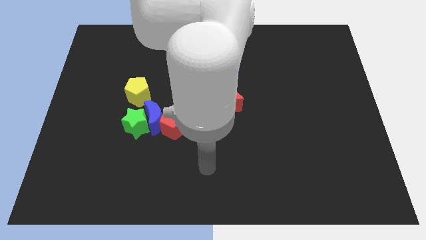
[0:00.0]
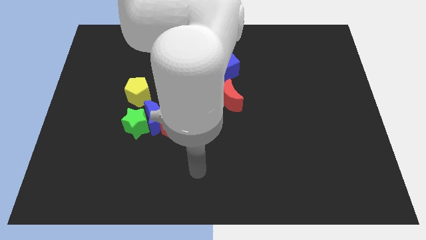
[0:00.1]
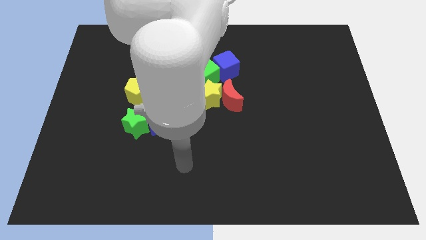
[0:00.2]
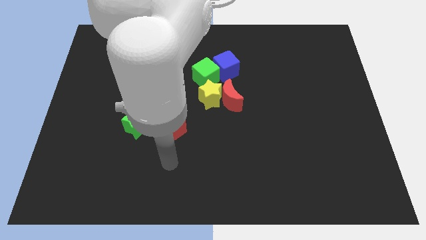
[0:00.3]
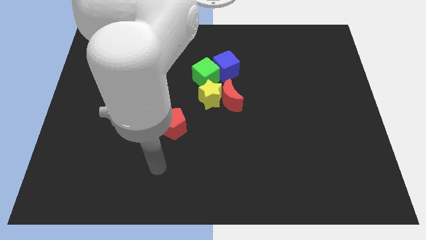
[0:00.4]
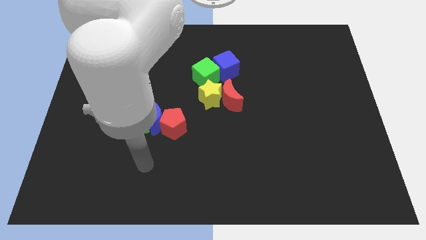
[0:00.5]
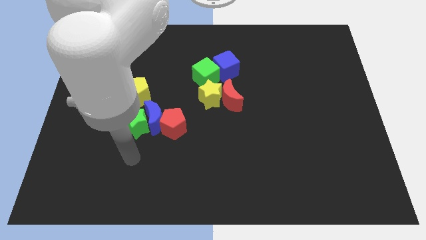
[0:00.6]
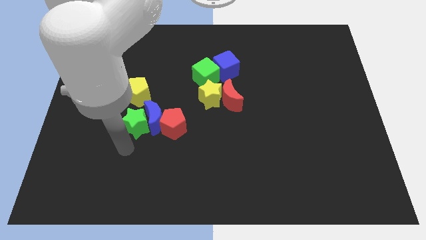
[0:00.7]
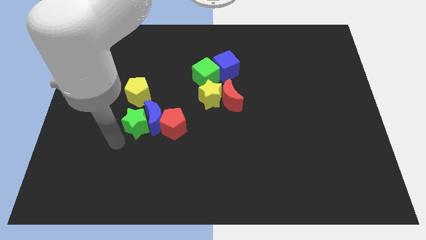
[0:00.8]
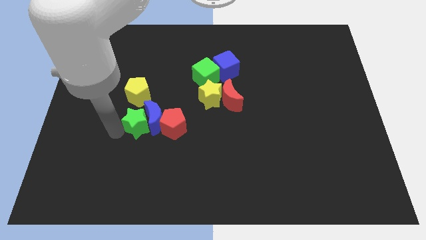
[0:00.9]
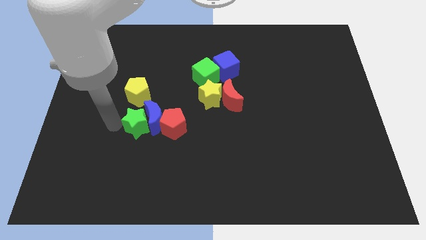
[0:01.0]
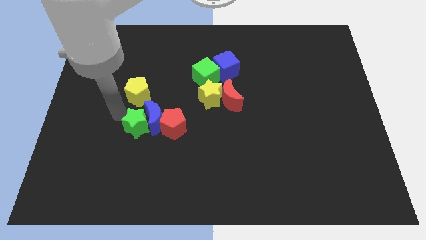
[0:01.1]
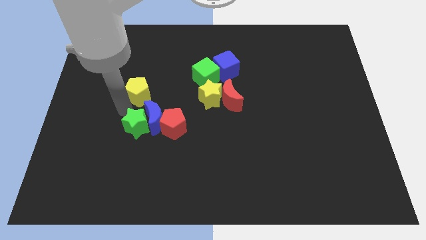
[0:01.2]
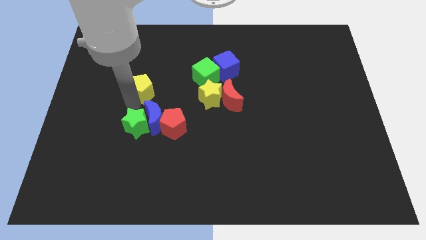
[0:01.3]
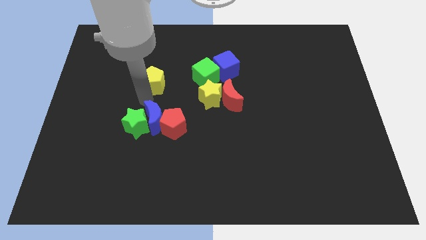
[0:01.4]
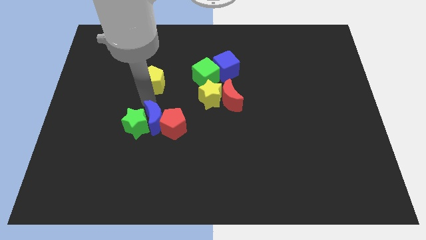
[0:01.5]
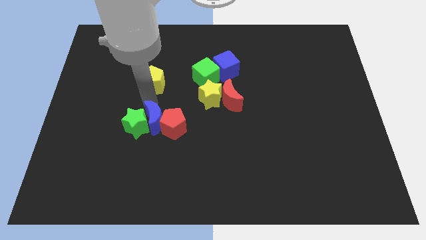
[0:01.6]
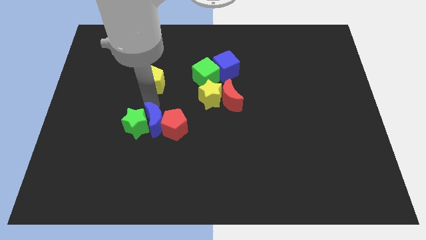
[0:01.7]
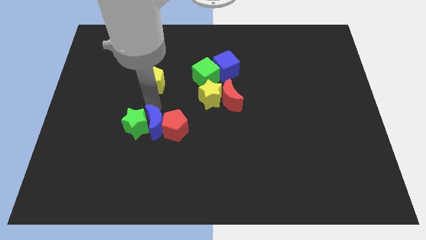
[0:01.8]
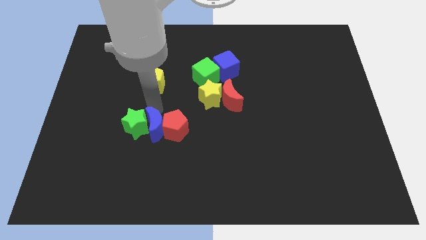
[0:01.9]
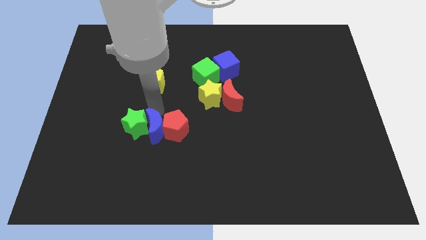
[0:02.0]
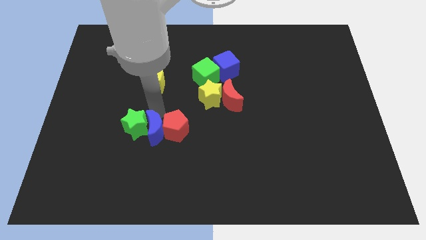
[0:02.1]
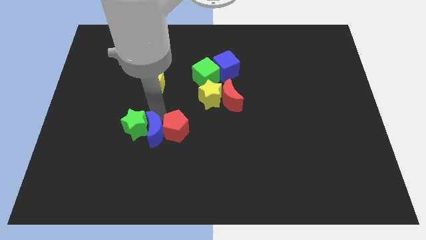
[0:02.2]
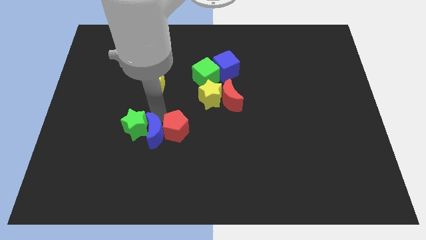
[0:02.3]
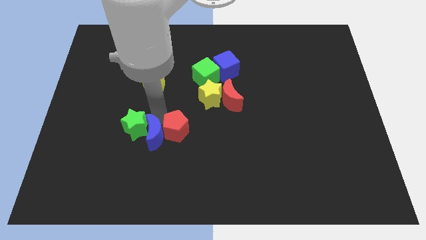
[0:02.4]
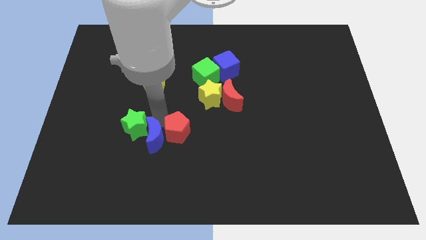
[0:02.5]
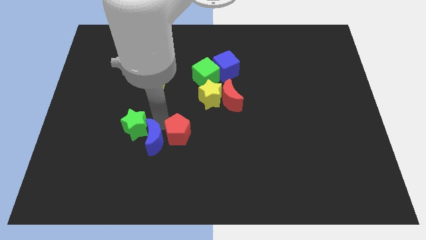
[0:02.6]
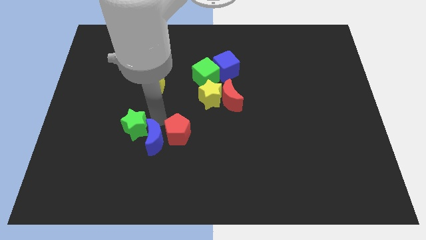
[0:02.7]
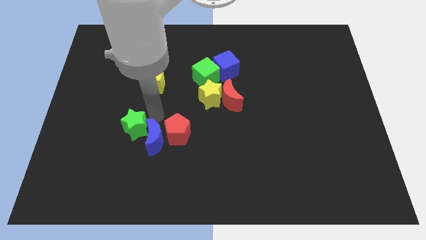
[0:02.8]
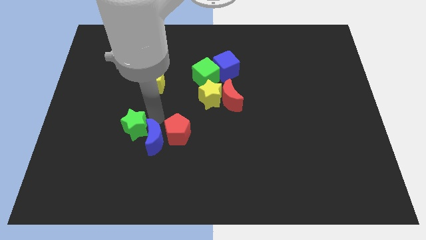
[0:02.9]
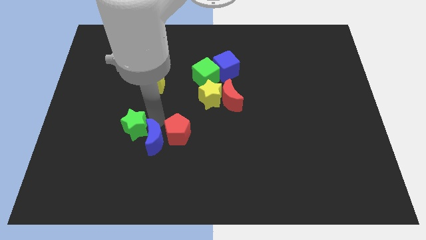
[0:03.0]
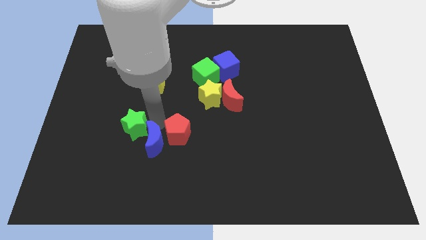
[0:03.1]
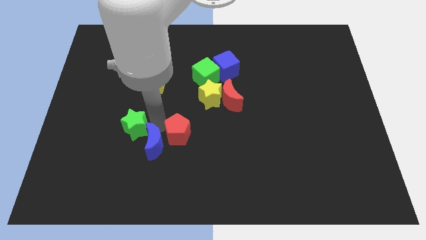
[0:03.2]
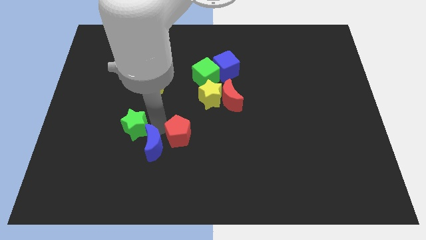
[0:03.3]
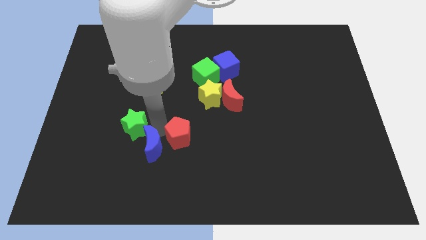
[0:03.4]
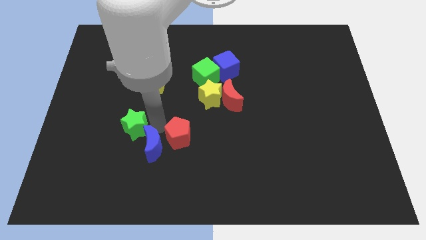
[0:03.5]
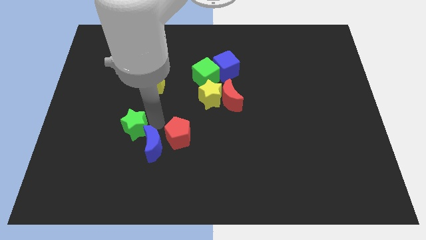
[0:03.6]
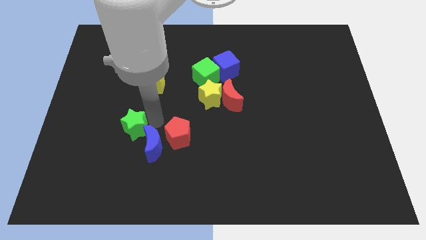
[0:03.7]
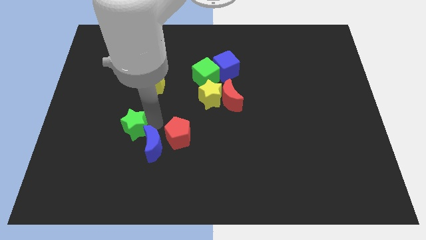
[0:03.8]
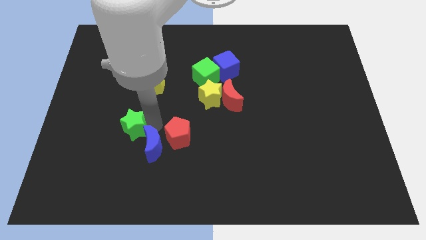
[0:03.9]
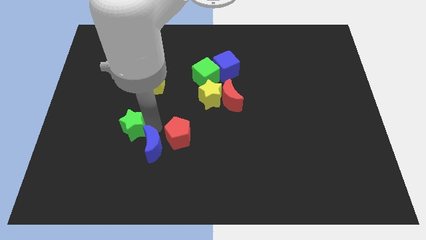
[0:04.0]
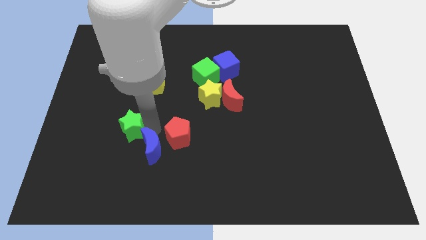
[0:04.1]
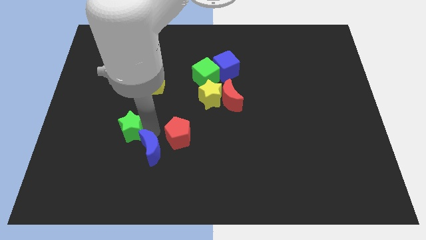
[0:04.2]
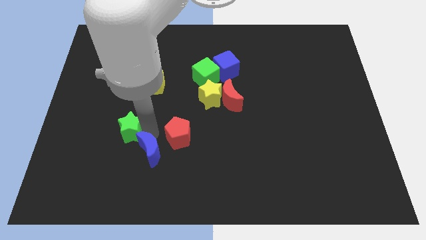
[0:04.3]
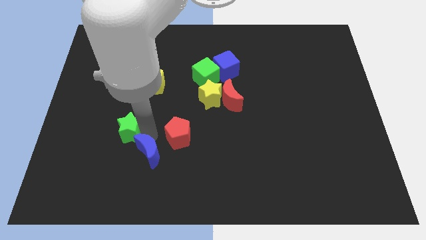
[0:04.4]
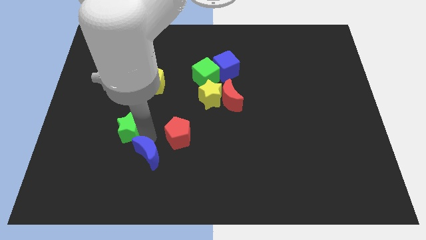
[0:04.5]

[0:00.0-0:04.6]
move the blue moon away from the green star, red pentagon, and yellow pentagon

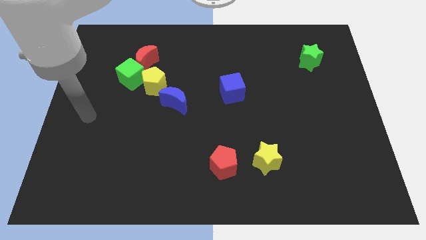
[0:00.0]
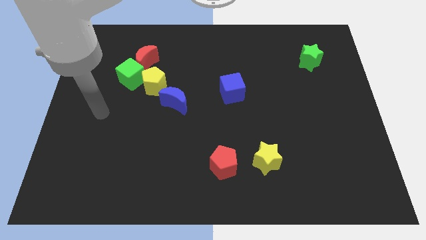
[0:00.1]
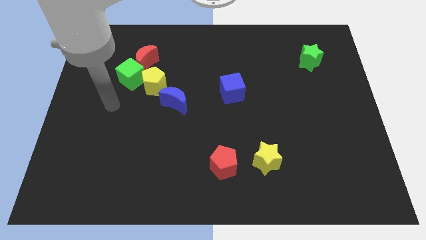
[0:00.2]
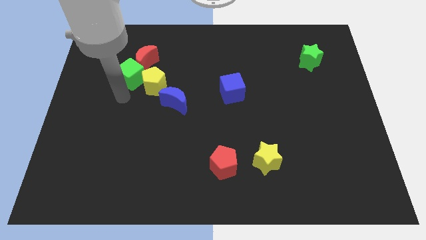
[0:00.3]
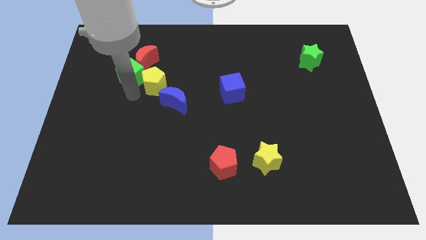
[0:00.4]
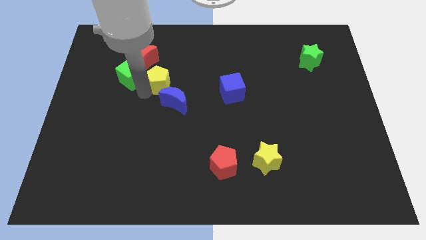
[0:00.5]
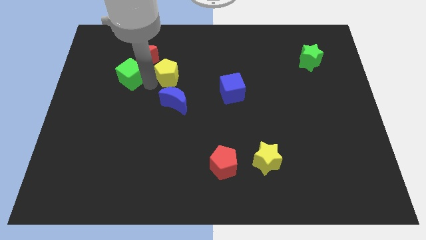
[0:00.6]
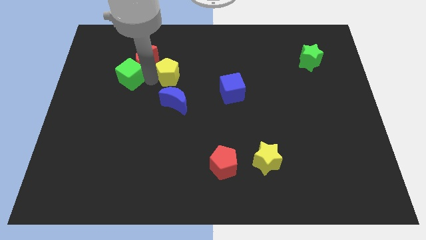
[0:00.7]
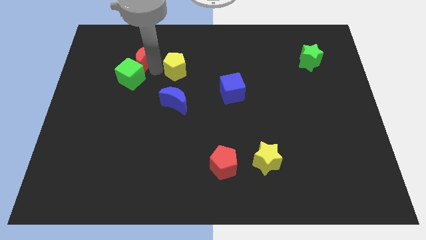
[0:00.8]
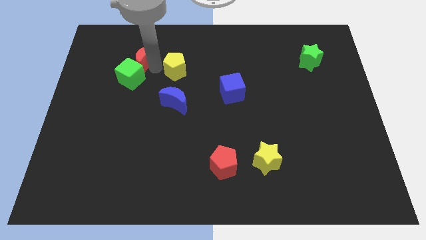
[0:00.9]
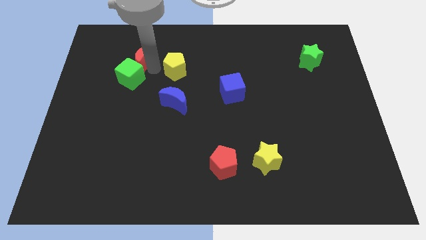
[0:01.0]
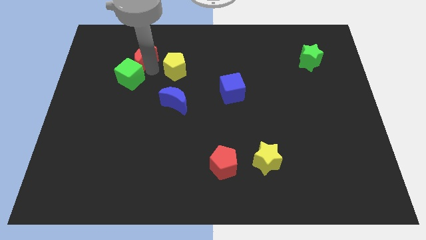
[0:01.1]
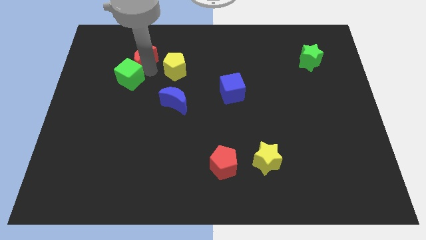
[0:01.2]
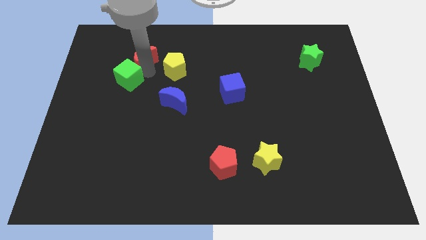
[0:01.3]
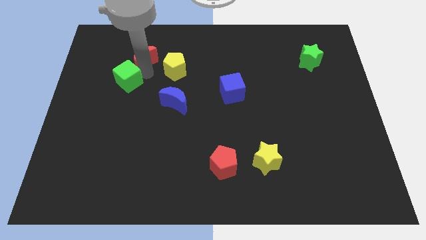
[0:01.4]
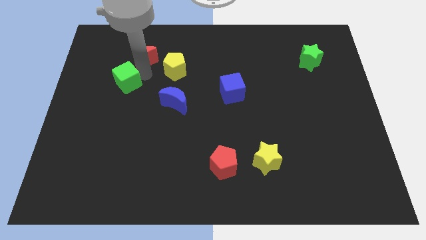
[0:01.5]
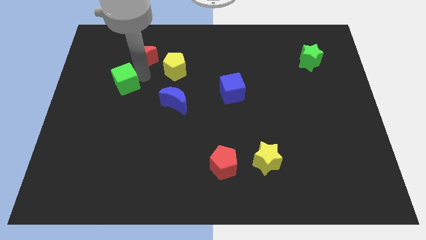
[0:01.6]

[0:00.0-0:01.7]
separate the green cube from the red moon and yellow pentagon

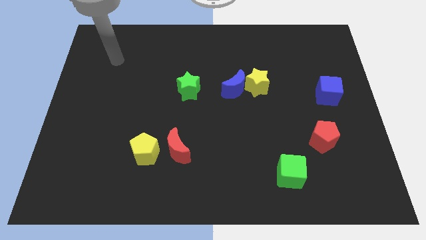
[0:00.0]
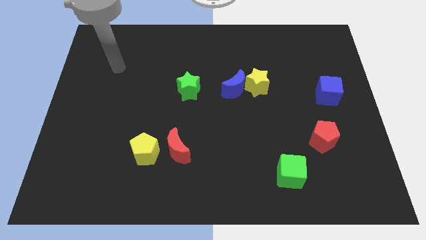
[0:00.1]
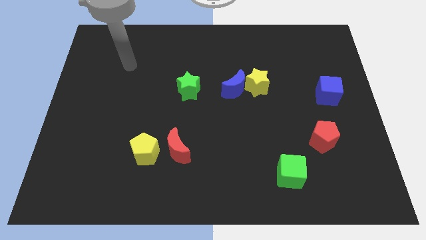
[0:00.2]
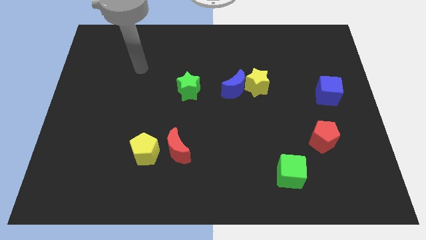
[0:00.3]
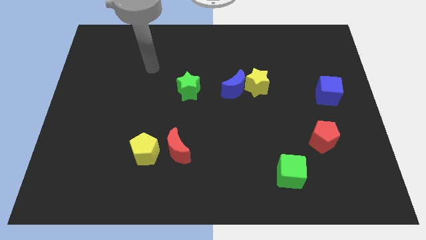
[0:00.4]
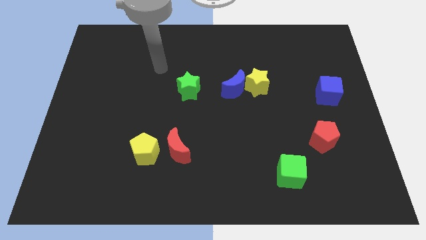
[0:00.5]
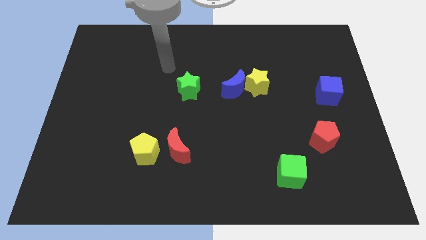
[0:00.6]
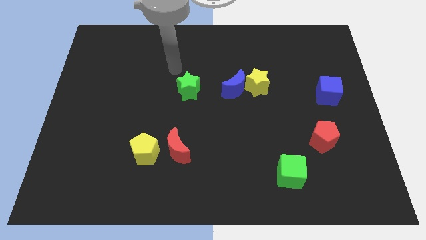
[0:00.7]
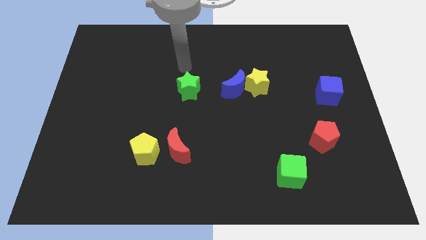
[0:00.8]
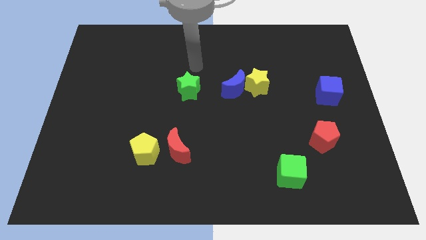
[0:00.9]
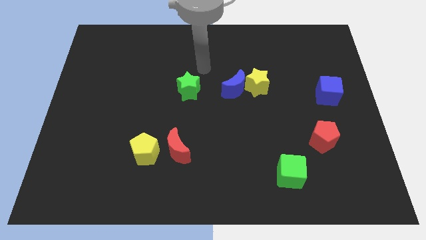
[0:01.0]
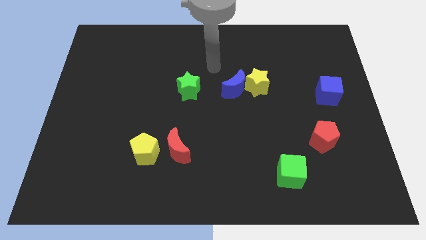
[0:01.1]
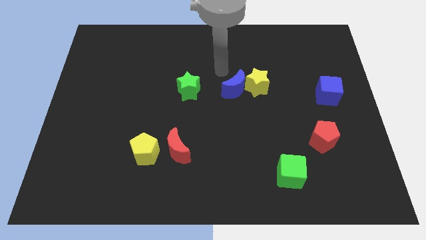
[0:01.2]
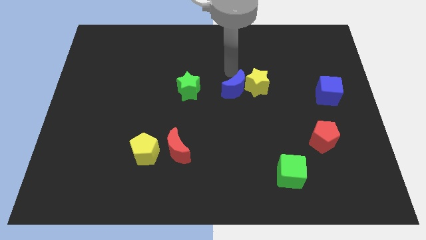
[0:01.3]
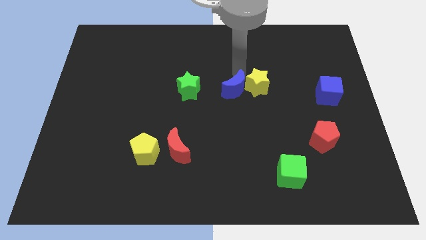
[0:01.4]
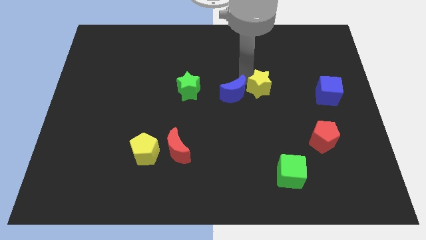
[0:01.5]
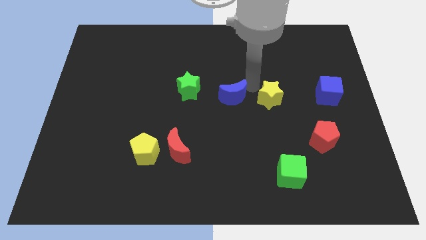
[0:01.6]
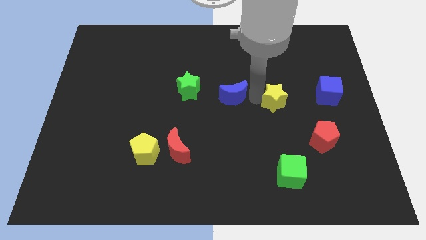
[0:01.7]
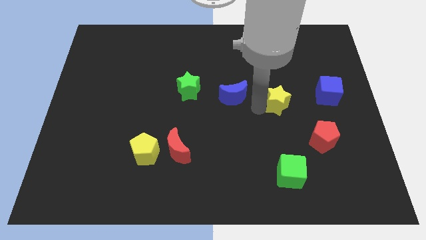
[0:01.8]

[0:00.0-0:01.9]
separate the blue moon from the yellow star

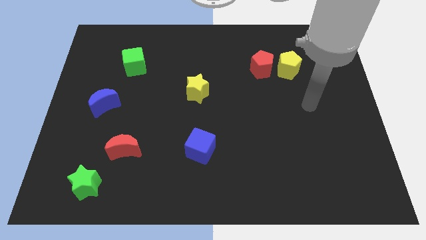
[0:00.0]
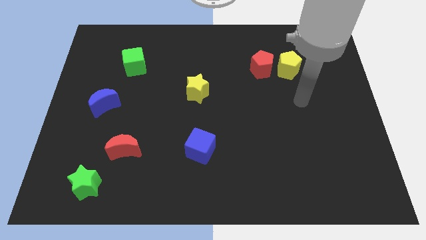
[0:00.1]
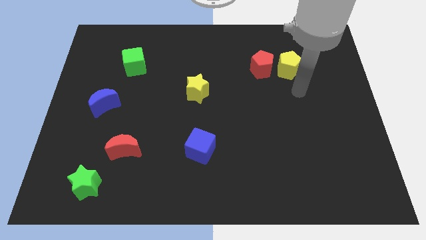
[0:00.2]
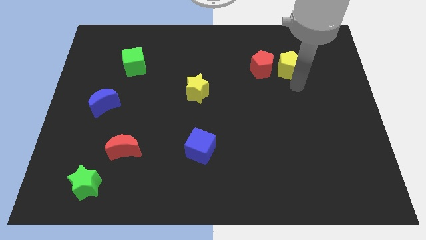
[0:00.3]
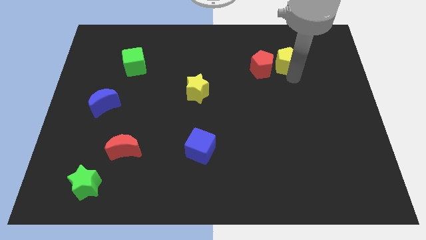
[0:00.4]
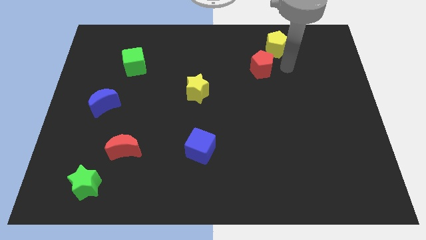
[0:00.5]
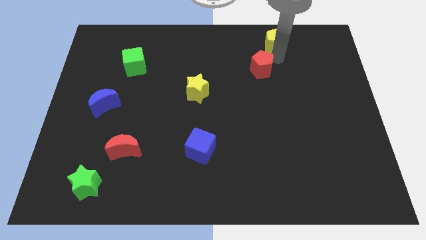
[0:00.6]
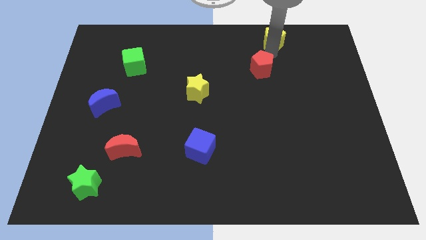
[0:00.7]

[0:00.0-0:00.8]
pull the red pentagon apart from the yellow pentagon

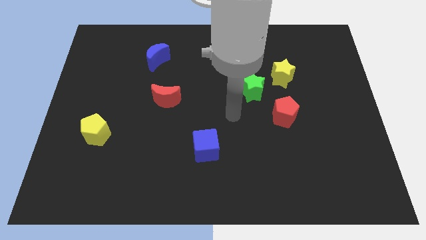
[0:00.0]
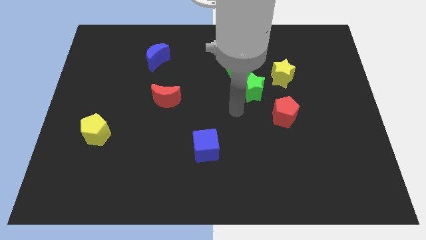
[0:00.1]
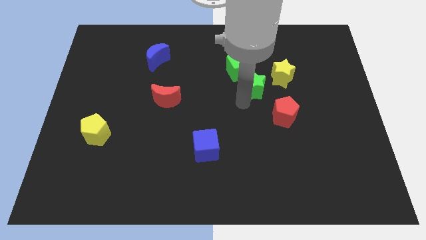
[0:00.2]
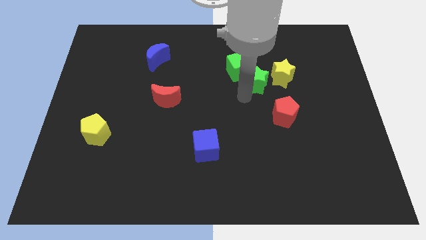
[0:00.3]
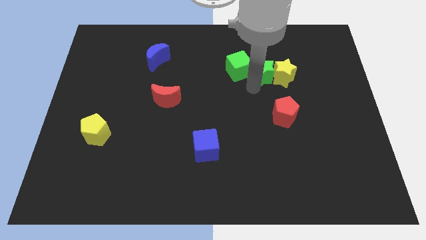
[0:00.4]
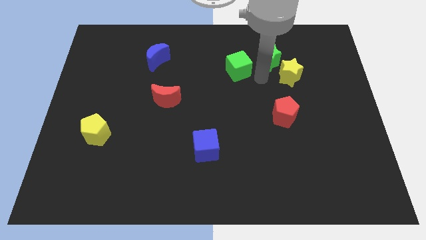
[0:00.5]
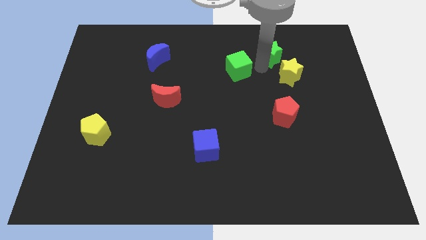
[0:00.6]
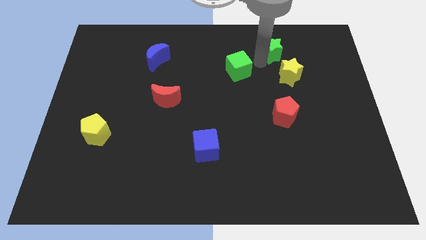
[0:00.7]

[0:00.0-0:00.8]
separate the green cube from the green star
